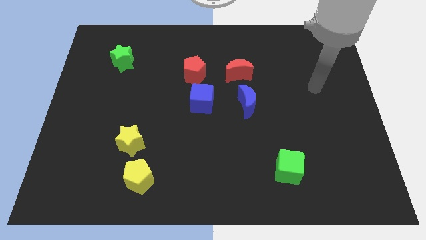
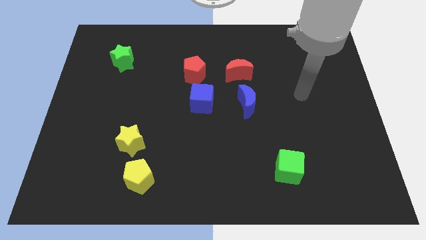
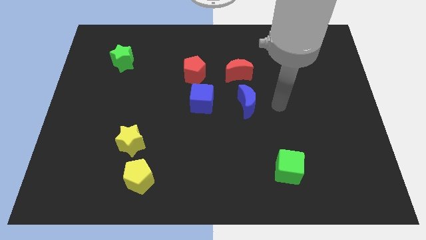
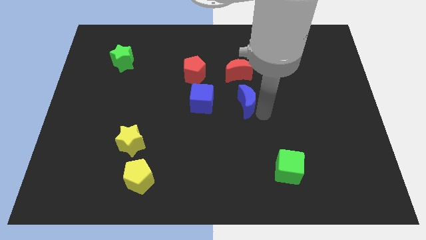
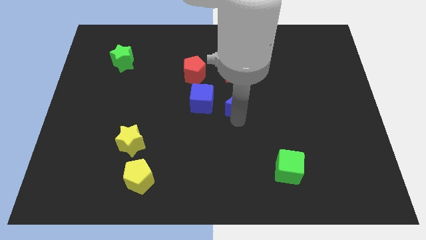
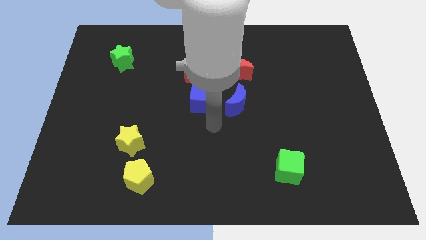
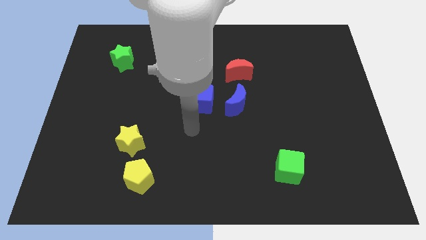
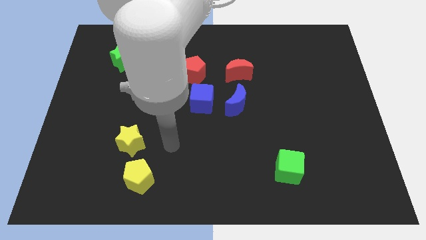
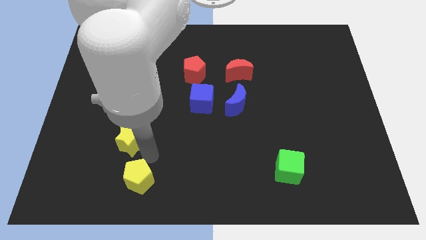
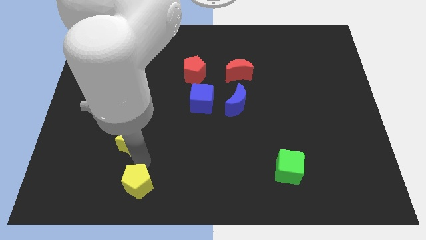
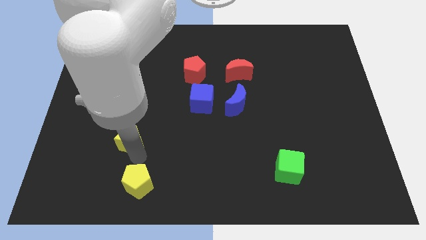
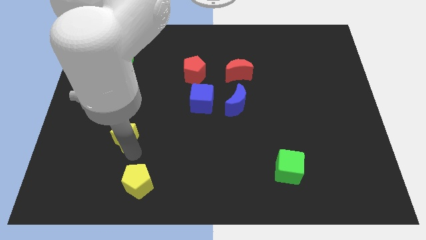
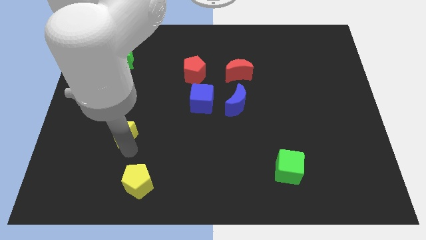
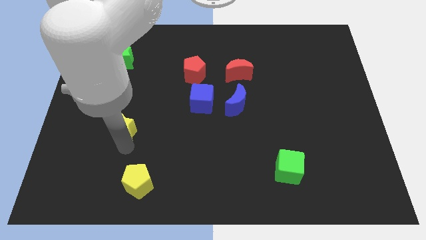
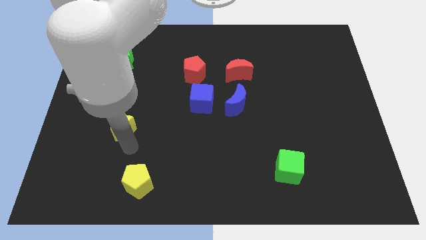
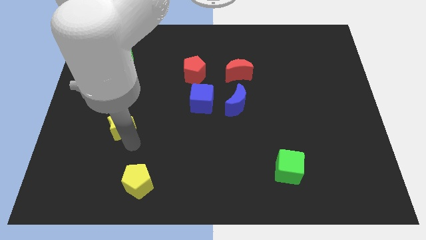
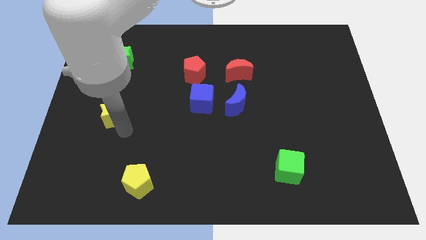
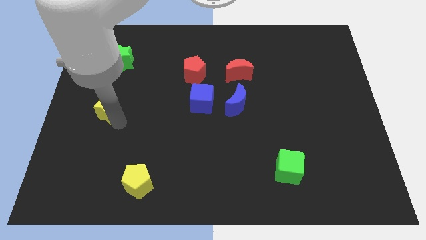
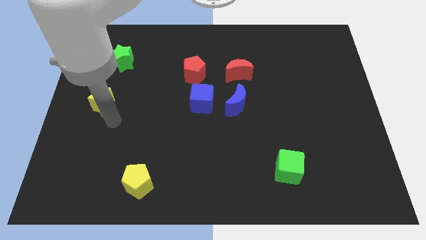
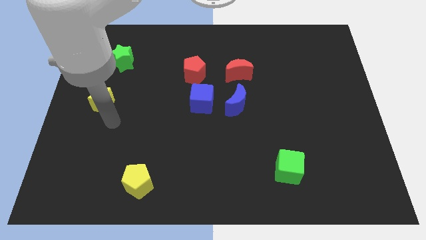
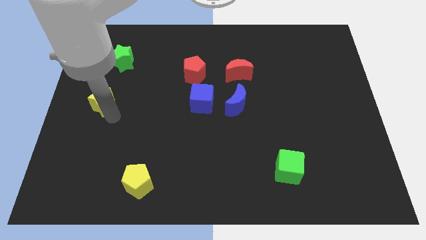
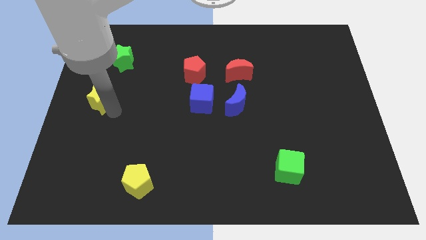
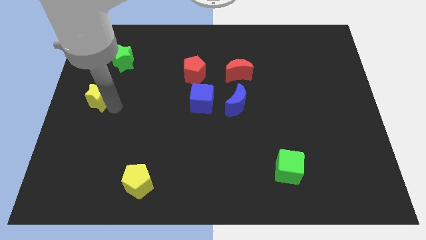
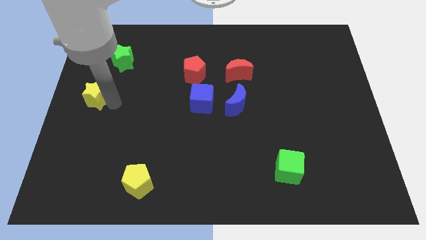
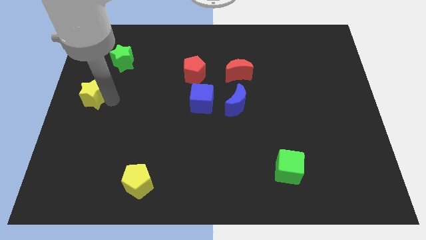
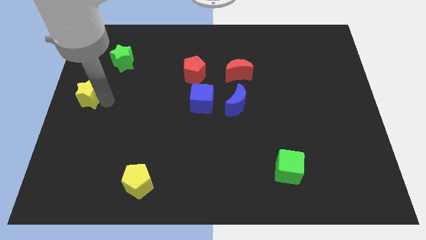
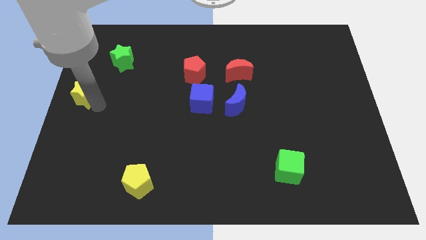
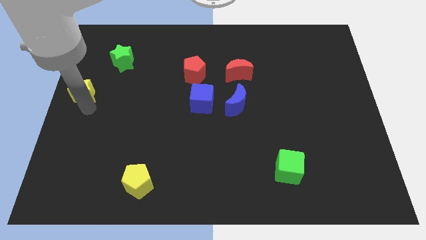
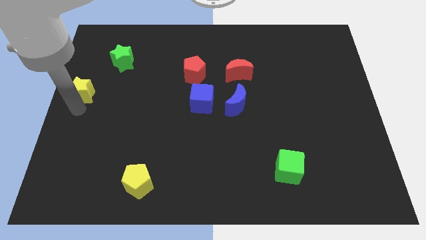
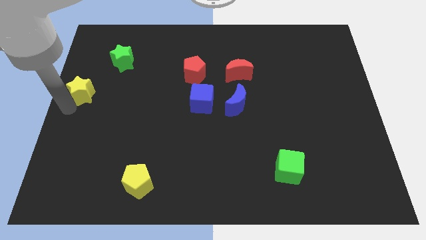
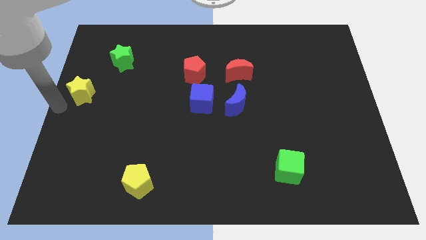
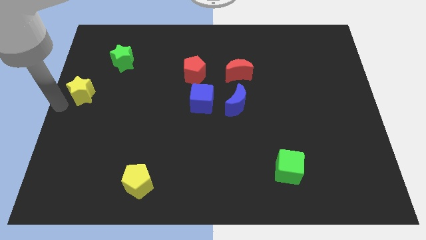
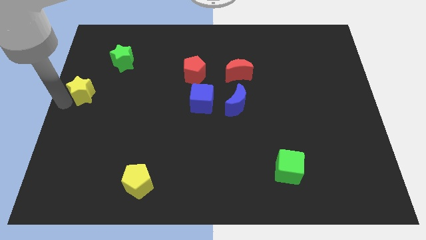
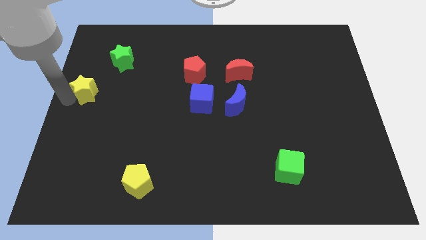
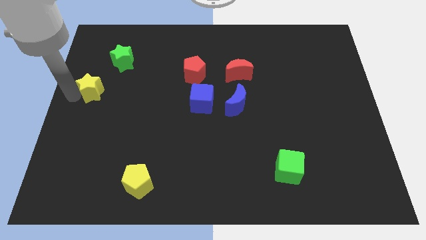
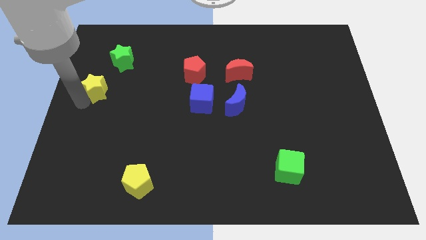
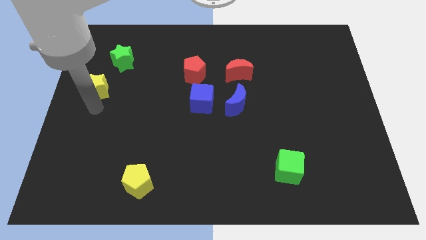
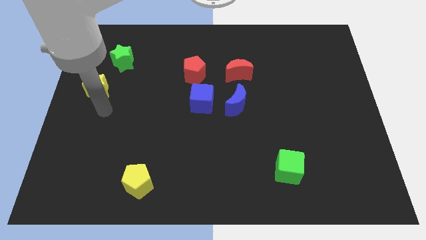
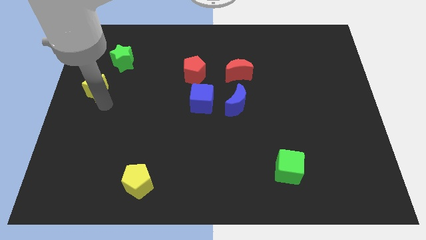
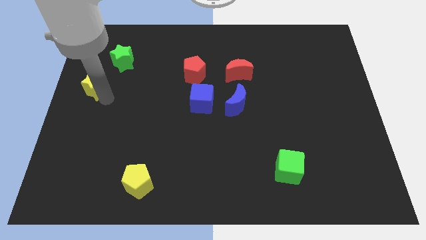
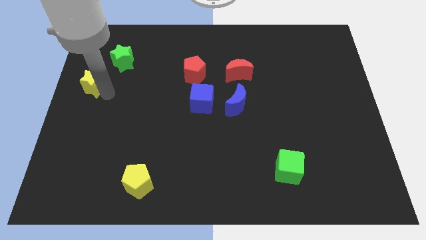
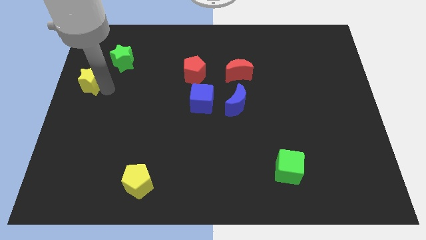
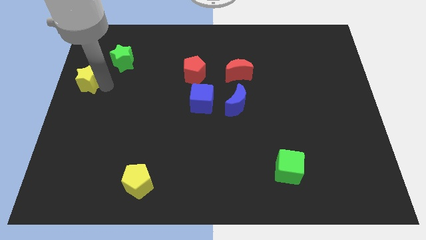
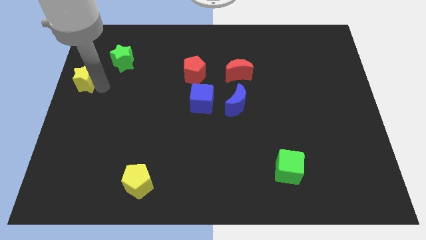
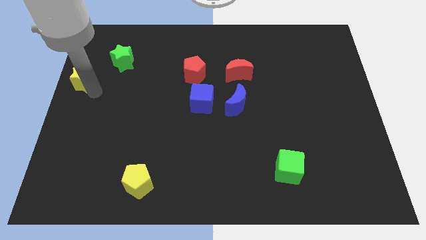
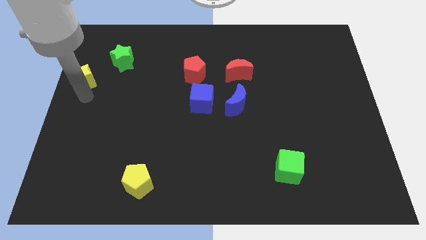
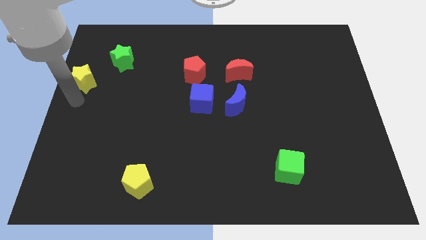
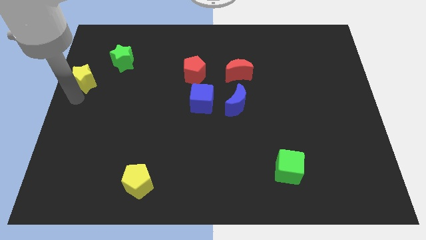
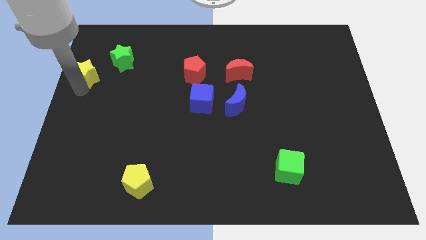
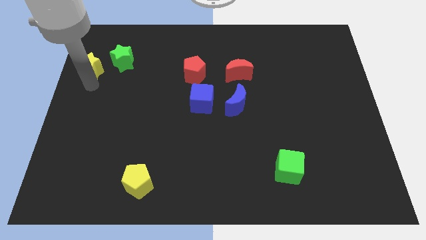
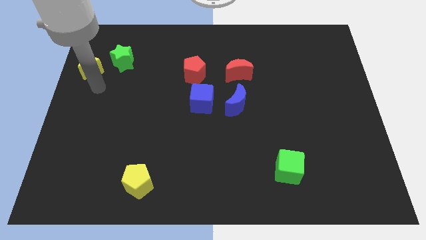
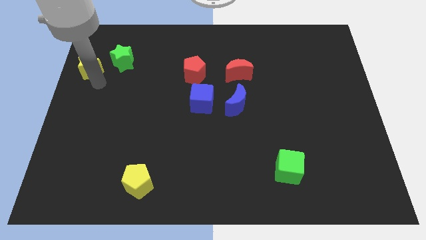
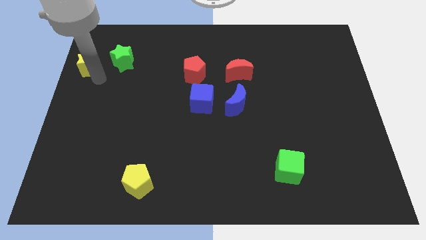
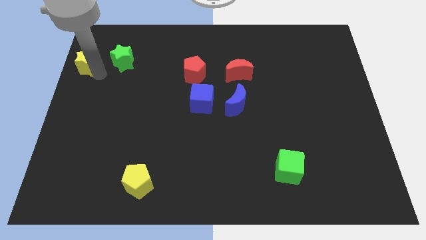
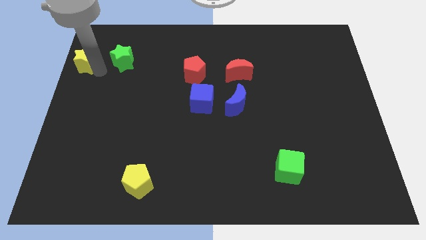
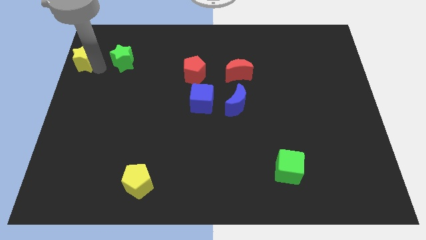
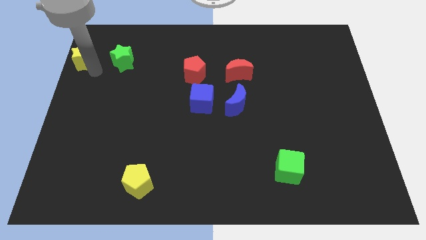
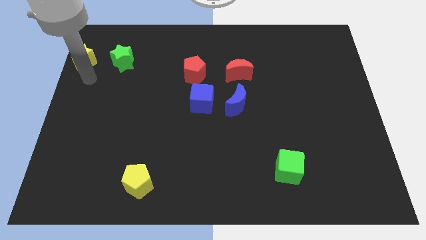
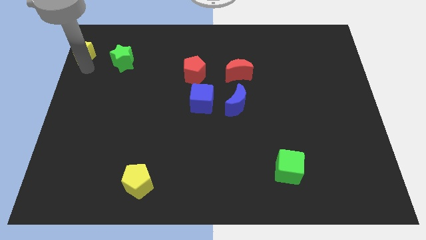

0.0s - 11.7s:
push the yellow star to the top left of the board
